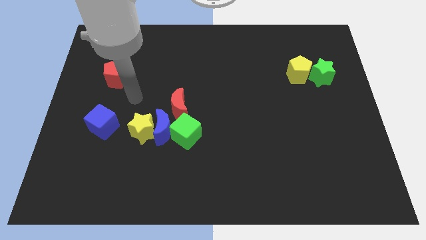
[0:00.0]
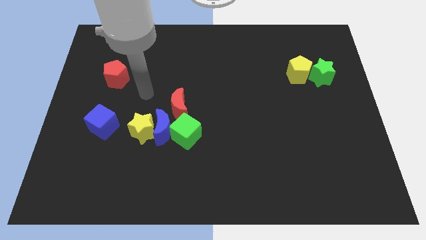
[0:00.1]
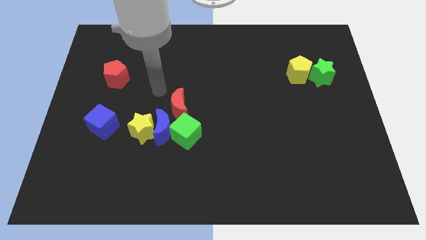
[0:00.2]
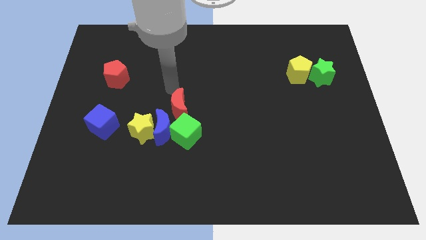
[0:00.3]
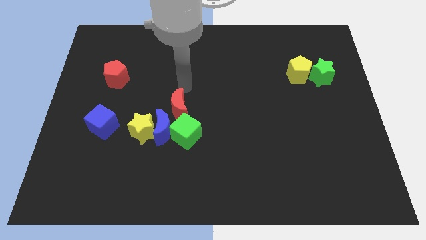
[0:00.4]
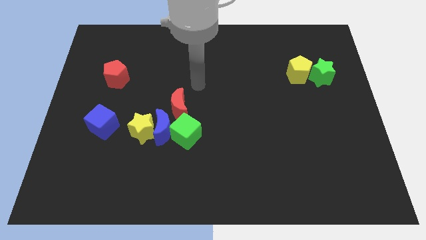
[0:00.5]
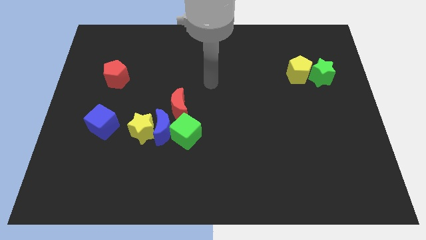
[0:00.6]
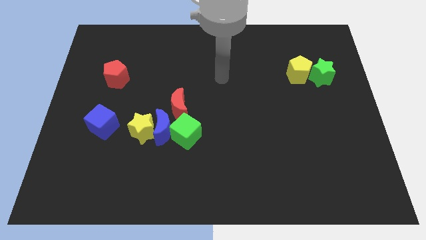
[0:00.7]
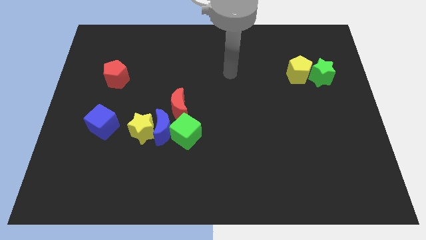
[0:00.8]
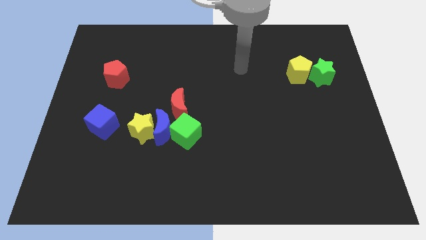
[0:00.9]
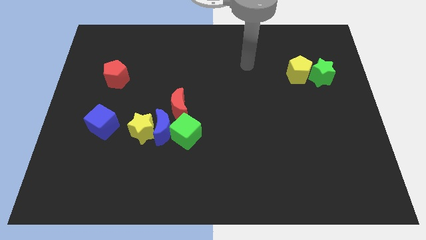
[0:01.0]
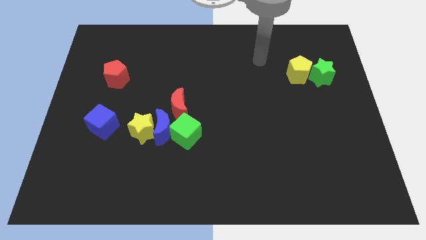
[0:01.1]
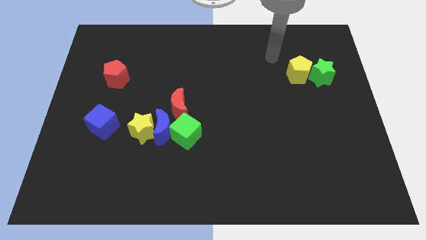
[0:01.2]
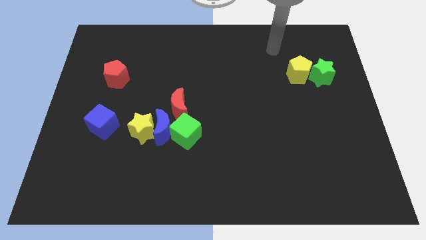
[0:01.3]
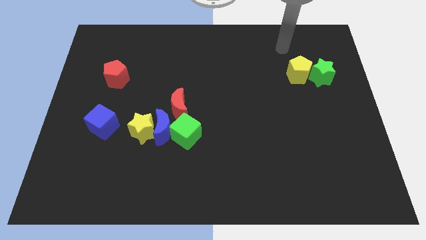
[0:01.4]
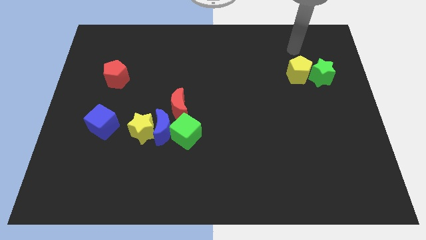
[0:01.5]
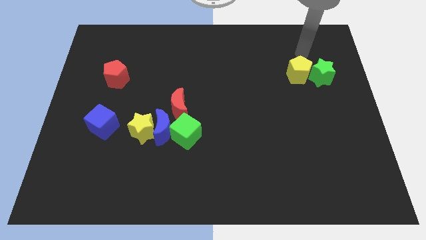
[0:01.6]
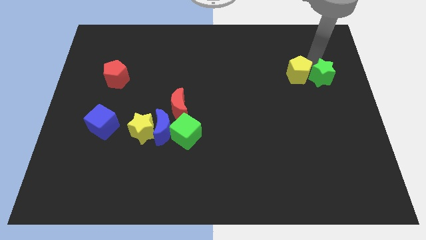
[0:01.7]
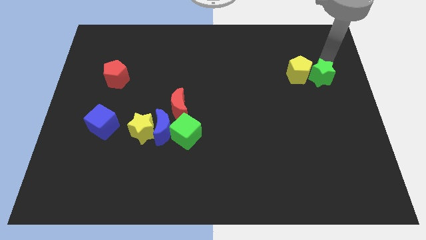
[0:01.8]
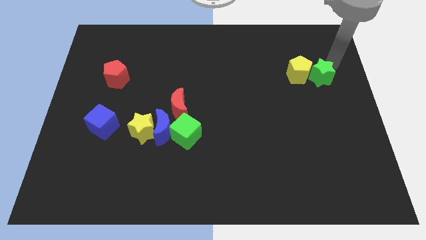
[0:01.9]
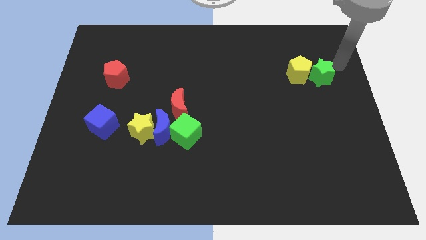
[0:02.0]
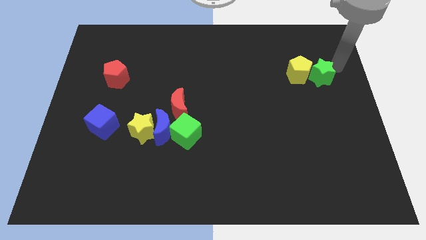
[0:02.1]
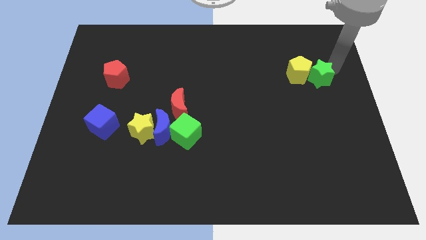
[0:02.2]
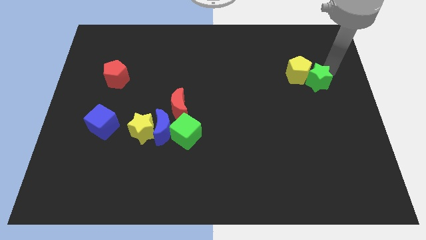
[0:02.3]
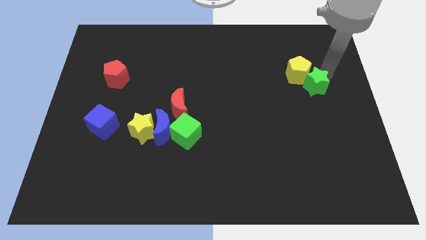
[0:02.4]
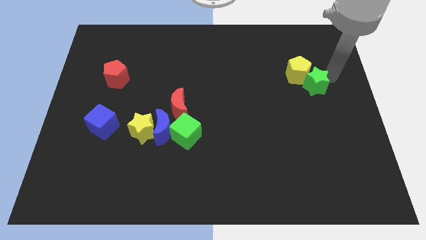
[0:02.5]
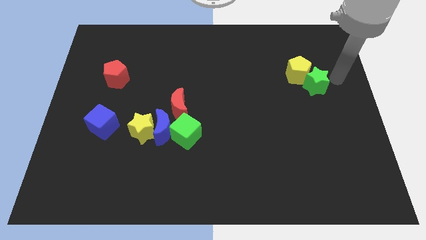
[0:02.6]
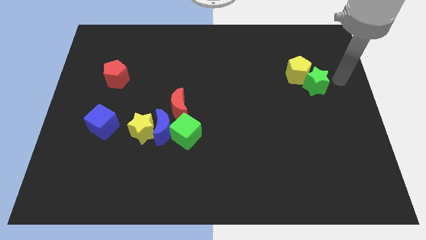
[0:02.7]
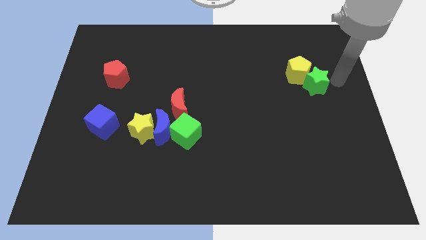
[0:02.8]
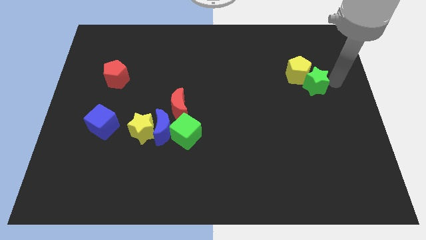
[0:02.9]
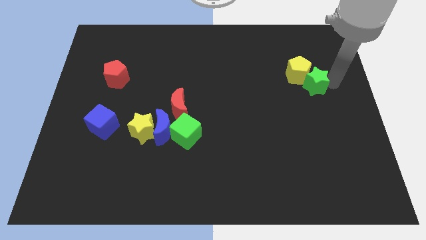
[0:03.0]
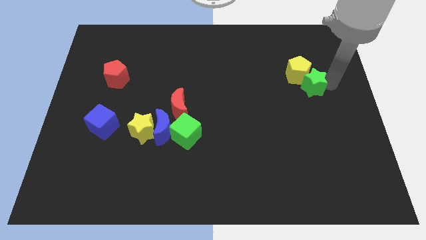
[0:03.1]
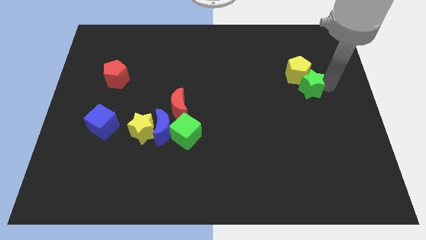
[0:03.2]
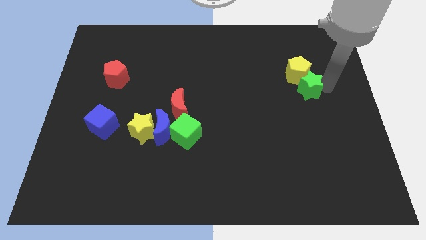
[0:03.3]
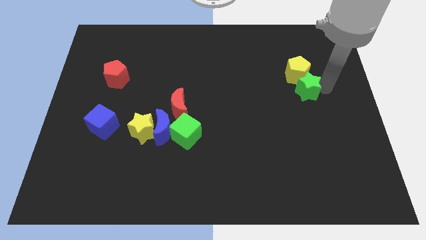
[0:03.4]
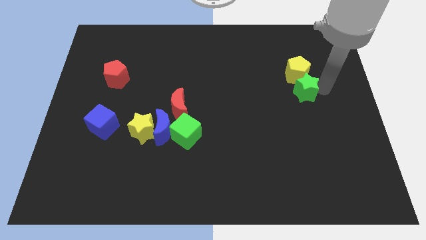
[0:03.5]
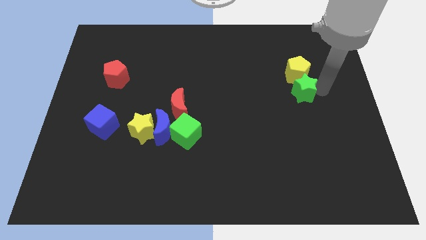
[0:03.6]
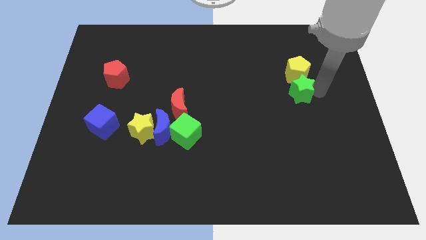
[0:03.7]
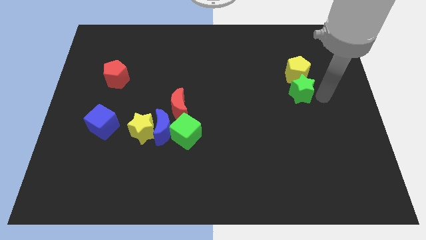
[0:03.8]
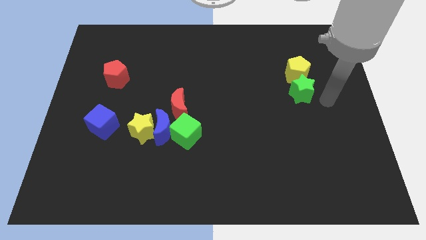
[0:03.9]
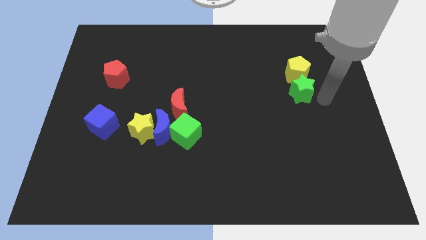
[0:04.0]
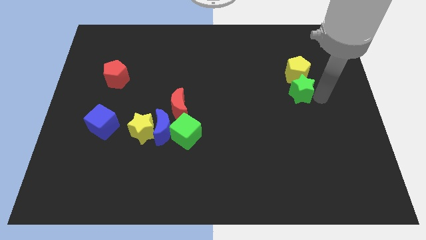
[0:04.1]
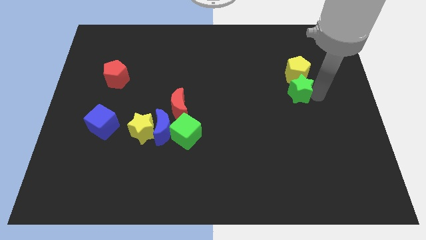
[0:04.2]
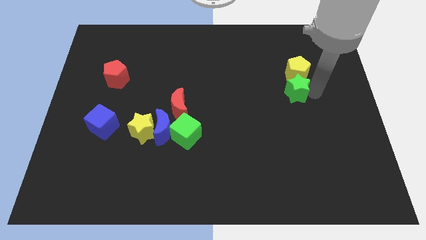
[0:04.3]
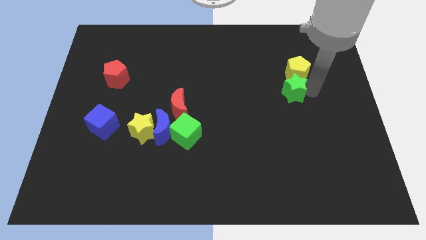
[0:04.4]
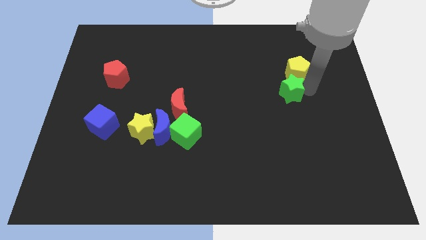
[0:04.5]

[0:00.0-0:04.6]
slightly slide the green star to the left

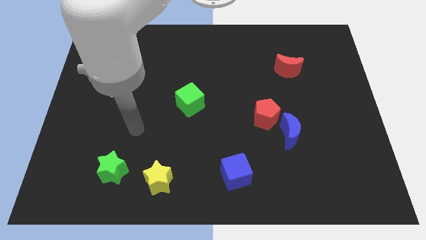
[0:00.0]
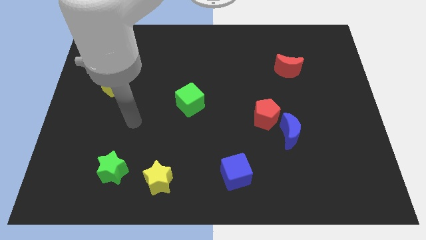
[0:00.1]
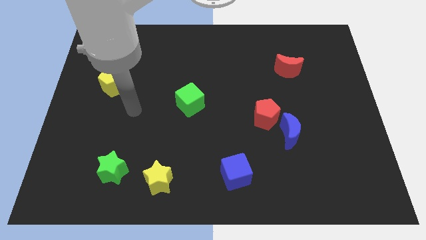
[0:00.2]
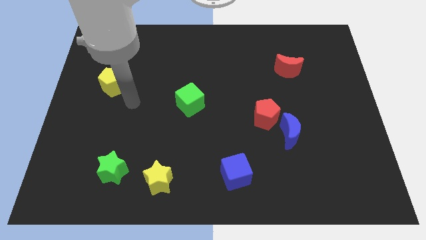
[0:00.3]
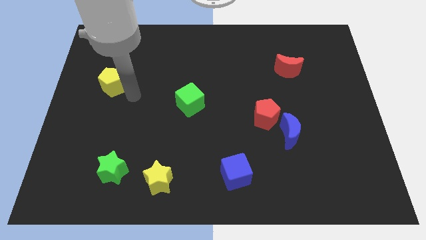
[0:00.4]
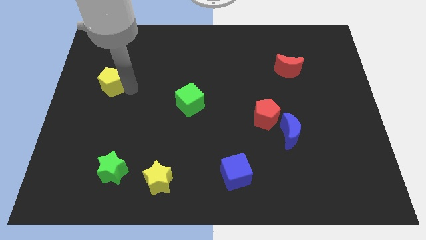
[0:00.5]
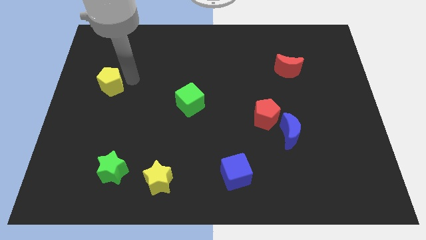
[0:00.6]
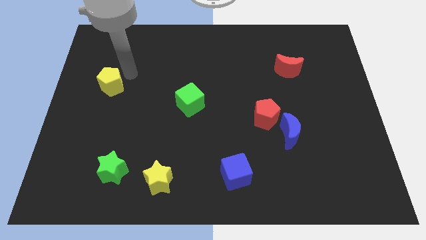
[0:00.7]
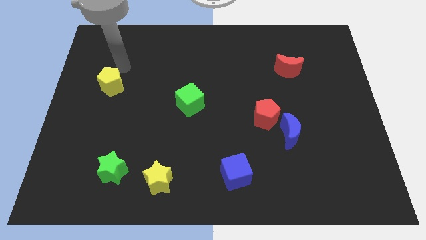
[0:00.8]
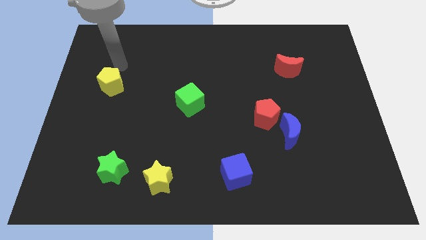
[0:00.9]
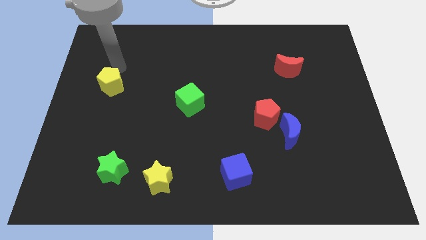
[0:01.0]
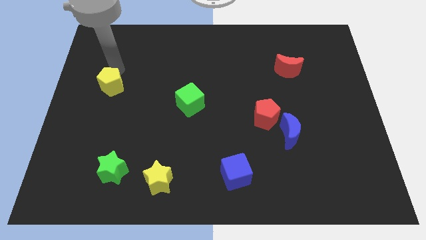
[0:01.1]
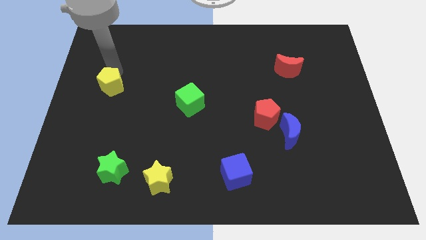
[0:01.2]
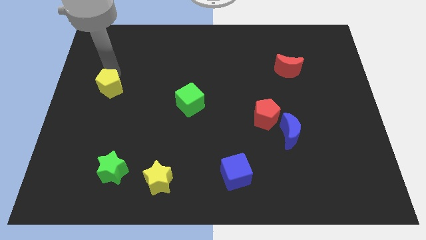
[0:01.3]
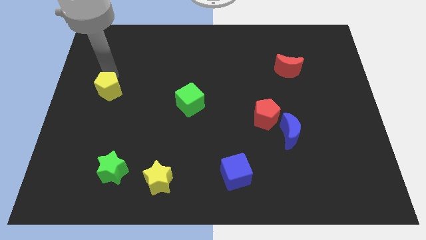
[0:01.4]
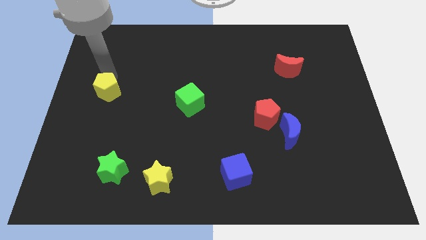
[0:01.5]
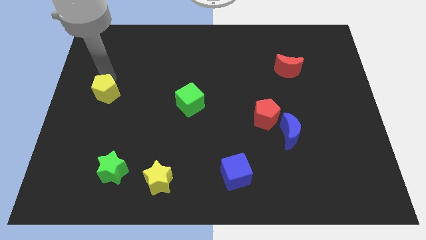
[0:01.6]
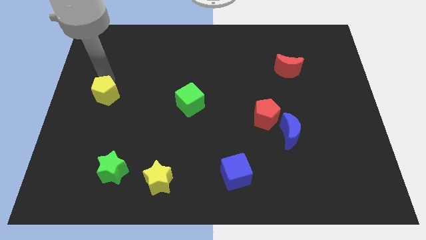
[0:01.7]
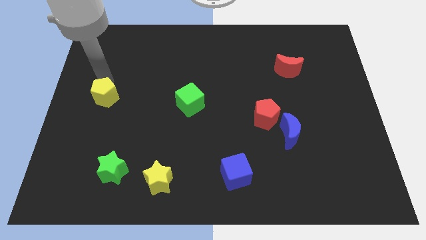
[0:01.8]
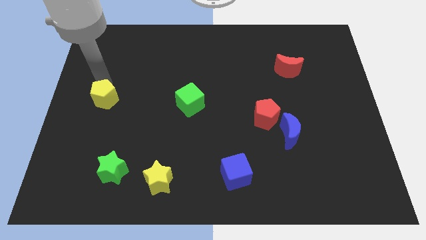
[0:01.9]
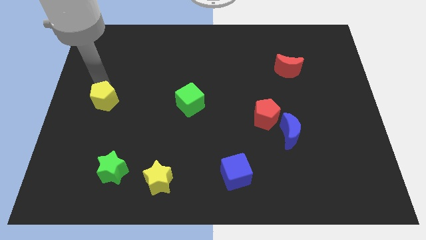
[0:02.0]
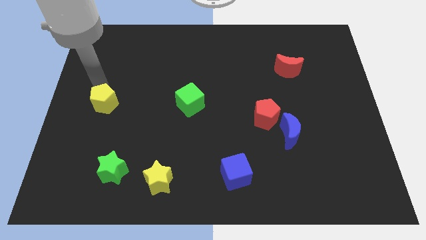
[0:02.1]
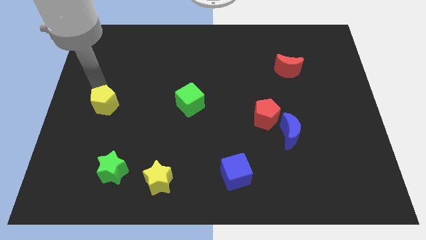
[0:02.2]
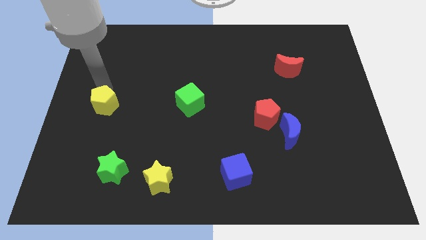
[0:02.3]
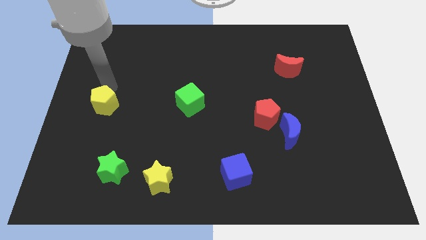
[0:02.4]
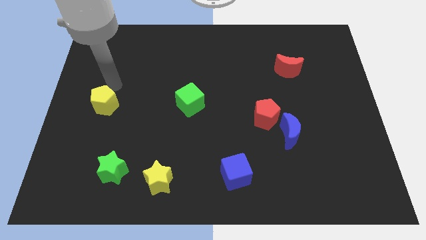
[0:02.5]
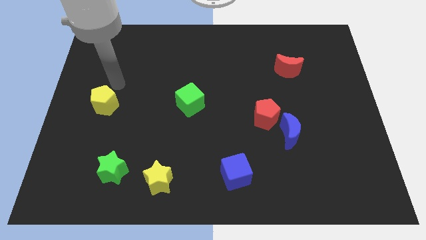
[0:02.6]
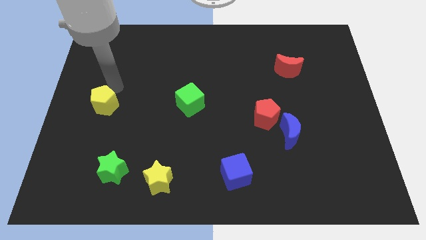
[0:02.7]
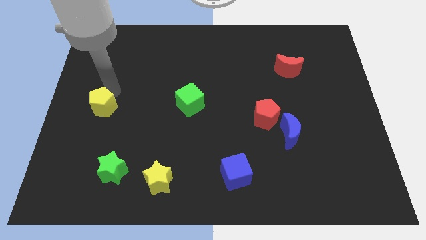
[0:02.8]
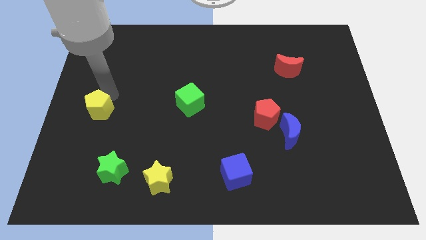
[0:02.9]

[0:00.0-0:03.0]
slide the yellow pentagon a little downwards
